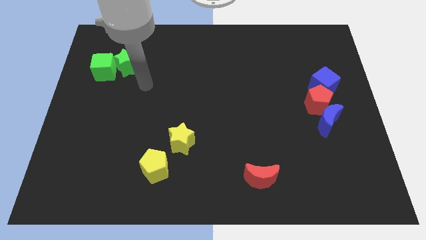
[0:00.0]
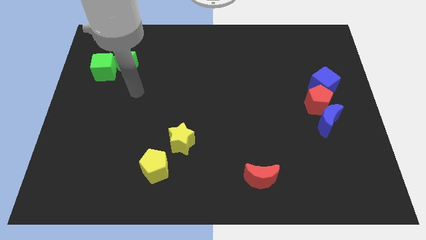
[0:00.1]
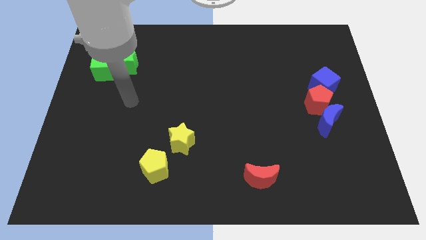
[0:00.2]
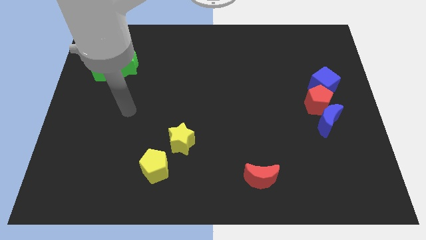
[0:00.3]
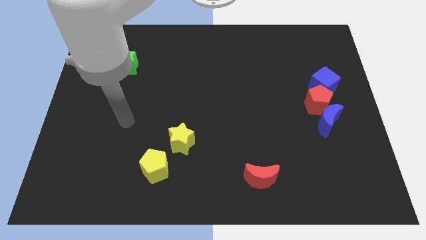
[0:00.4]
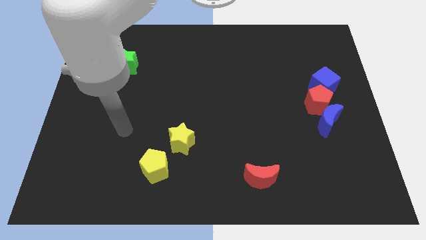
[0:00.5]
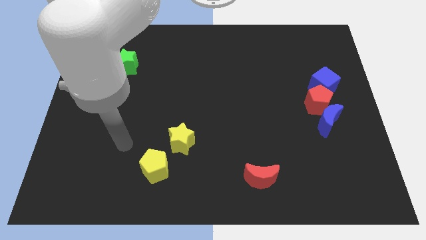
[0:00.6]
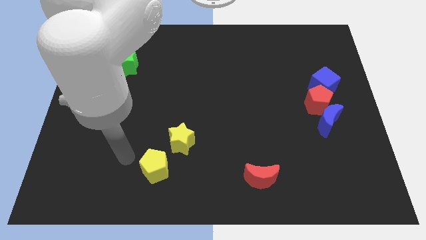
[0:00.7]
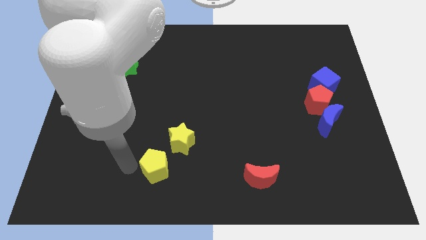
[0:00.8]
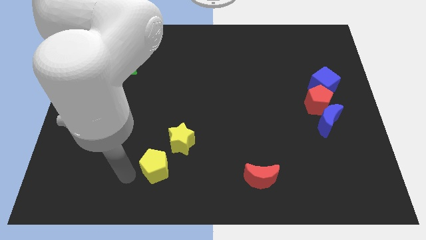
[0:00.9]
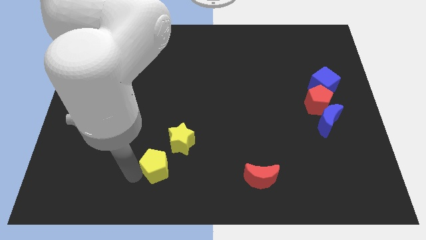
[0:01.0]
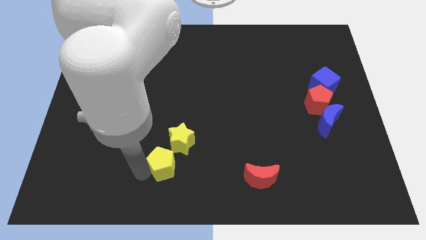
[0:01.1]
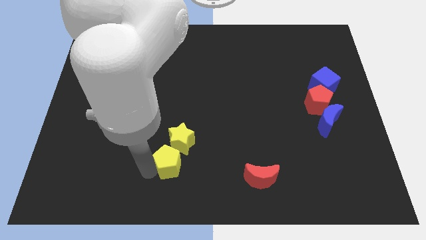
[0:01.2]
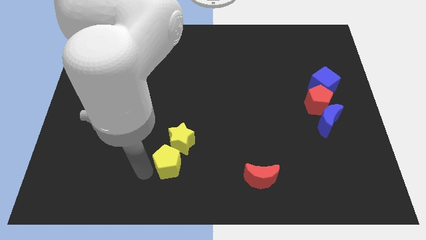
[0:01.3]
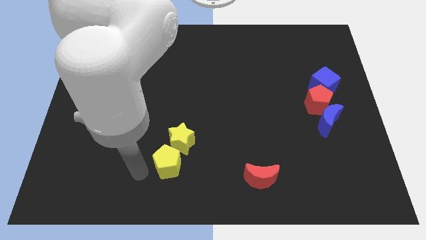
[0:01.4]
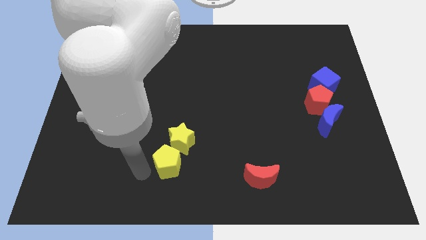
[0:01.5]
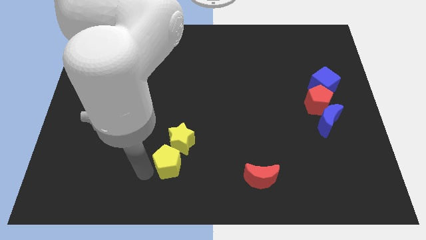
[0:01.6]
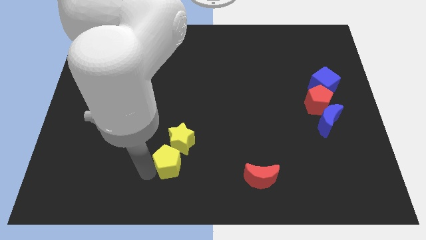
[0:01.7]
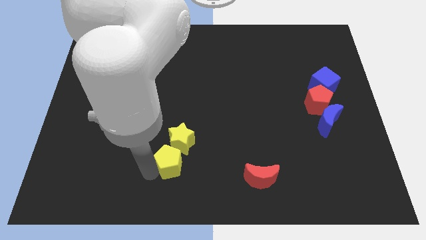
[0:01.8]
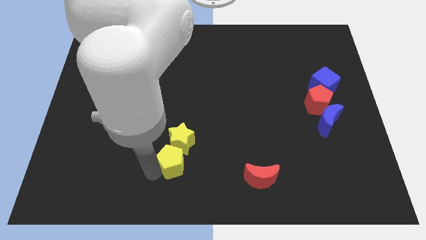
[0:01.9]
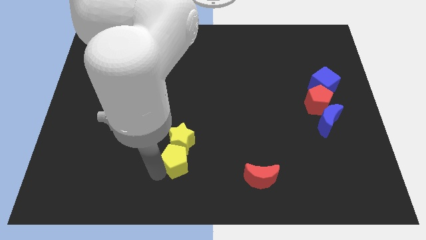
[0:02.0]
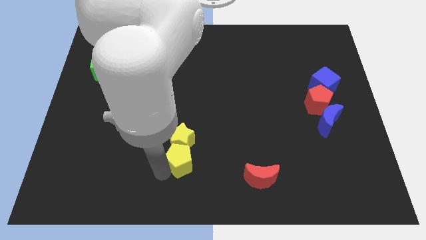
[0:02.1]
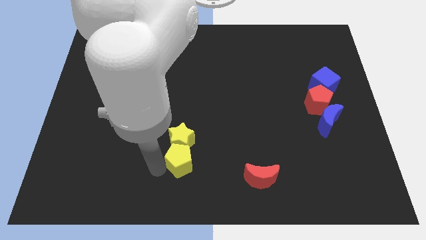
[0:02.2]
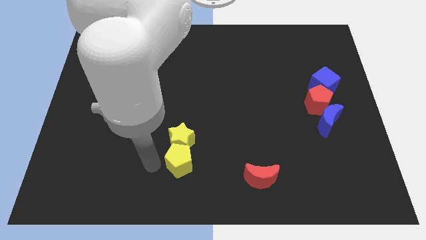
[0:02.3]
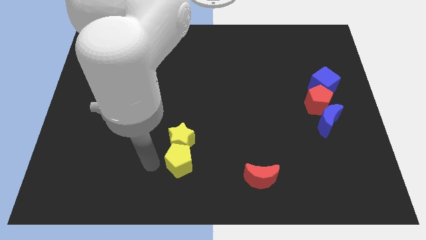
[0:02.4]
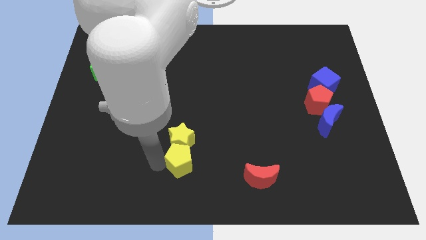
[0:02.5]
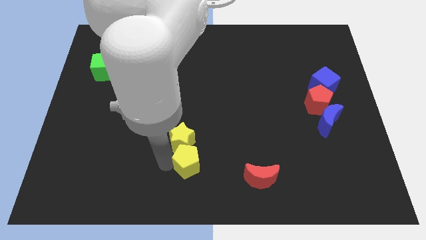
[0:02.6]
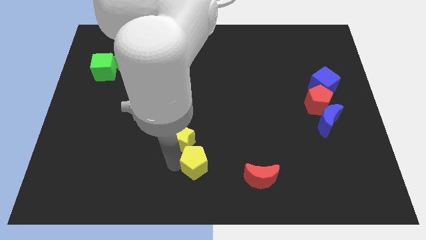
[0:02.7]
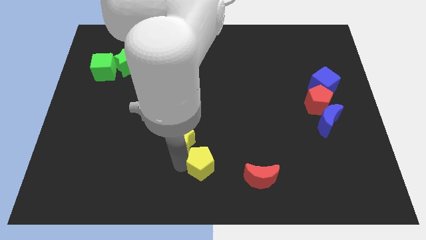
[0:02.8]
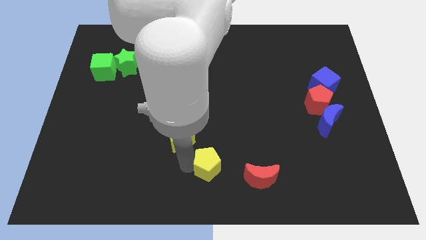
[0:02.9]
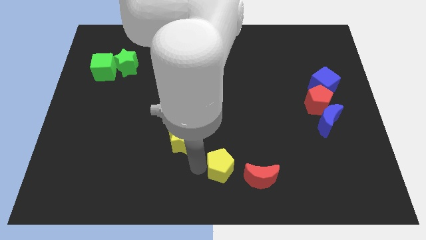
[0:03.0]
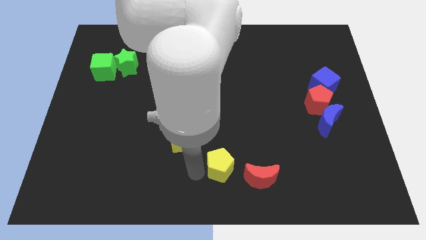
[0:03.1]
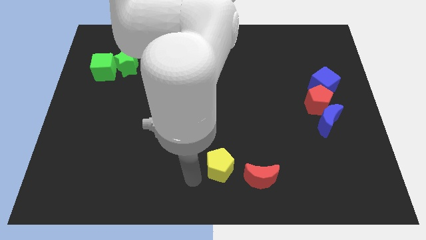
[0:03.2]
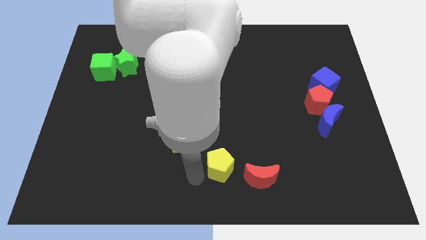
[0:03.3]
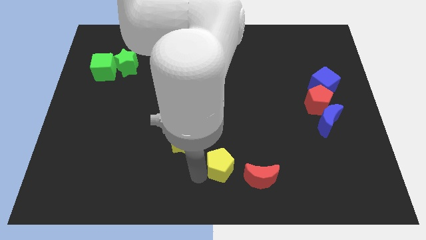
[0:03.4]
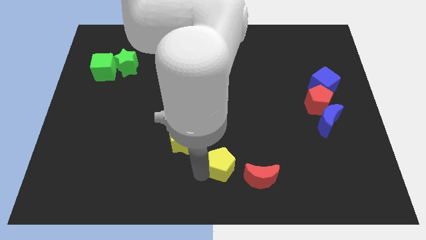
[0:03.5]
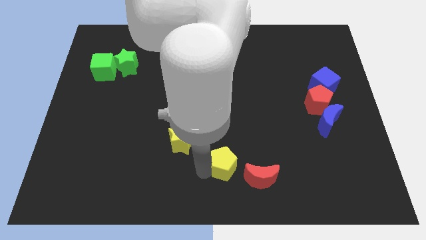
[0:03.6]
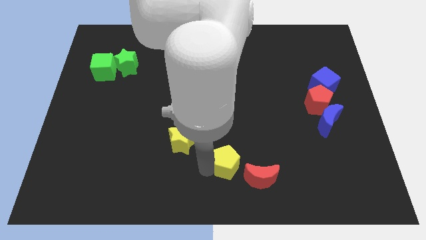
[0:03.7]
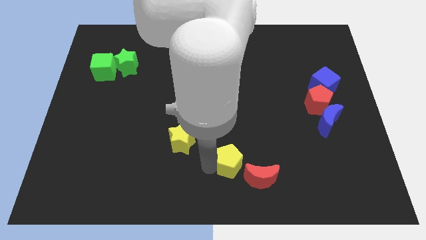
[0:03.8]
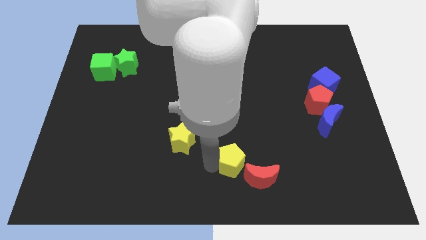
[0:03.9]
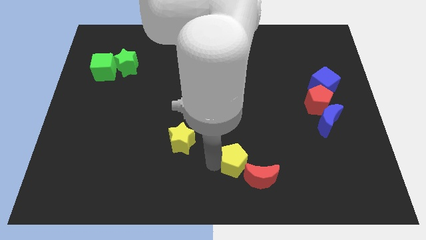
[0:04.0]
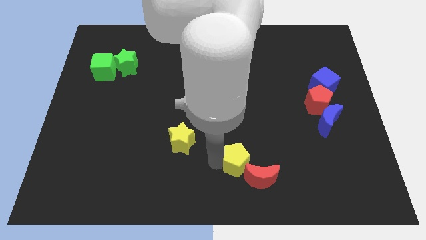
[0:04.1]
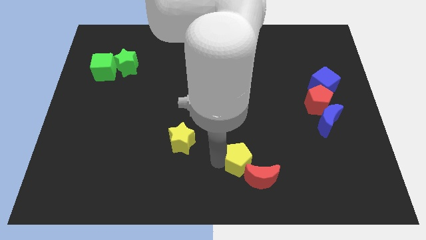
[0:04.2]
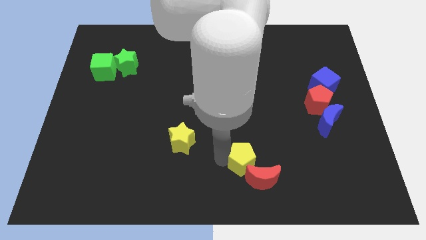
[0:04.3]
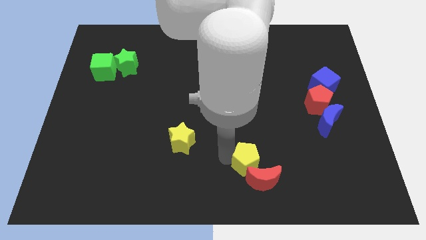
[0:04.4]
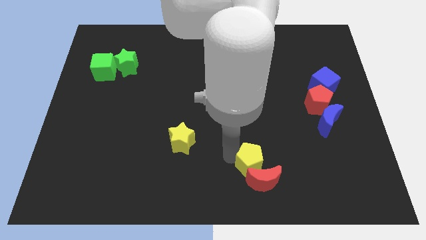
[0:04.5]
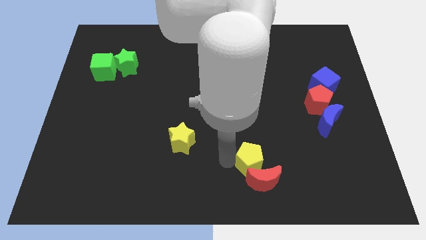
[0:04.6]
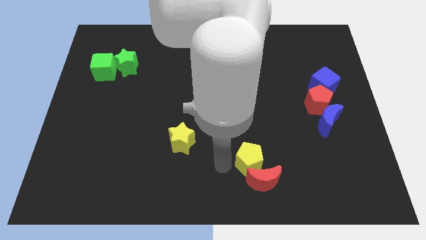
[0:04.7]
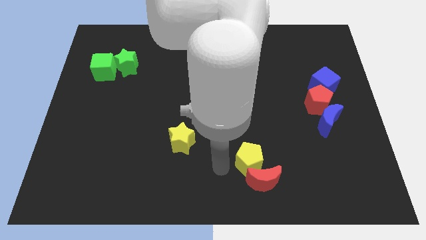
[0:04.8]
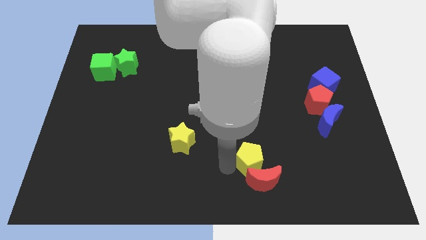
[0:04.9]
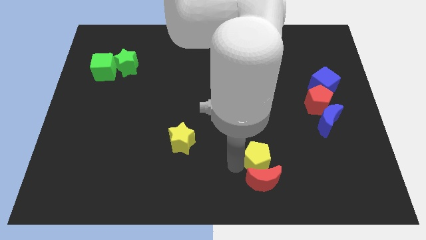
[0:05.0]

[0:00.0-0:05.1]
move the yellow pentagon to the right

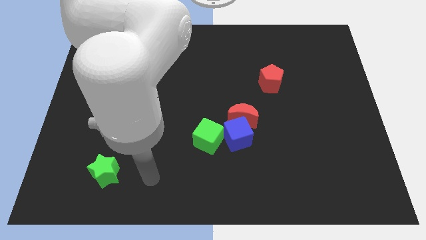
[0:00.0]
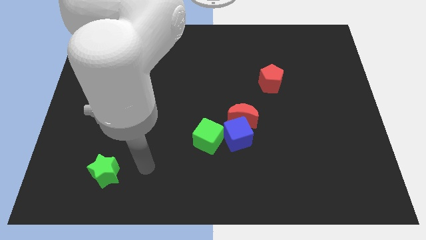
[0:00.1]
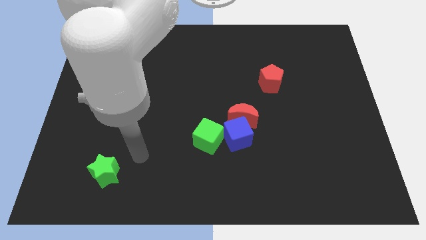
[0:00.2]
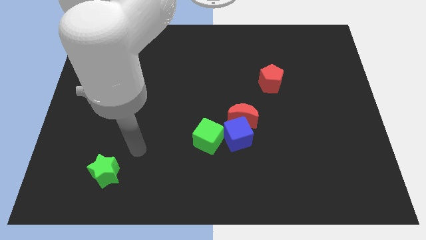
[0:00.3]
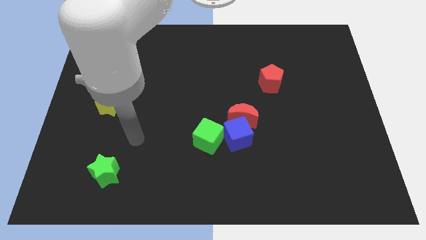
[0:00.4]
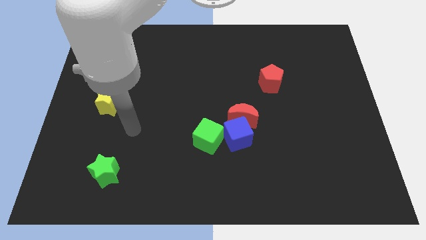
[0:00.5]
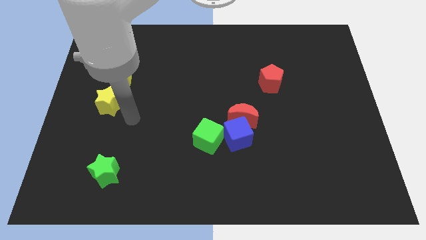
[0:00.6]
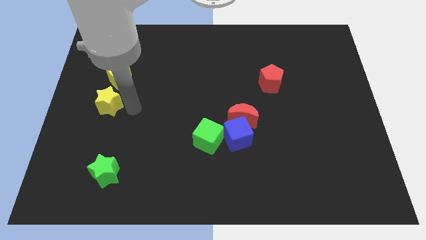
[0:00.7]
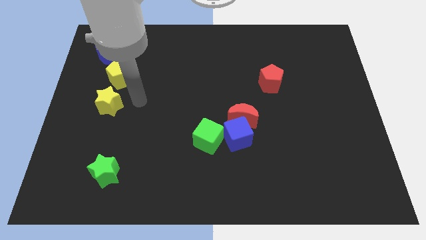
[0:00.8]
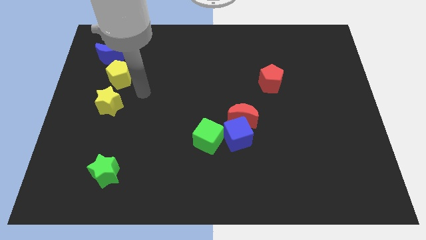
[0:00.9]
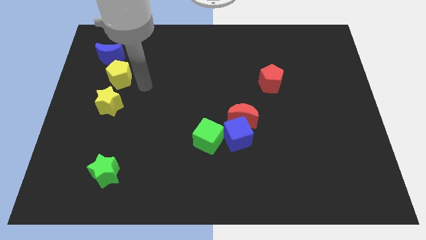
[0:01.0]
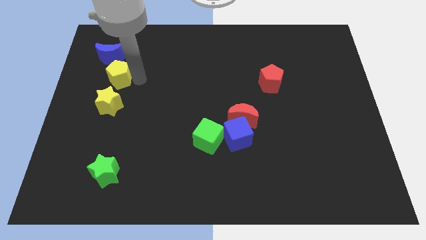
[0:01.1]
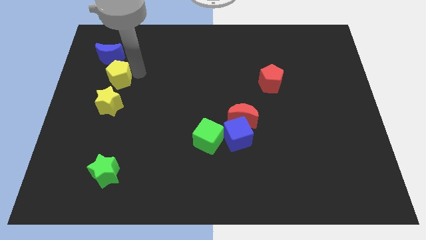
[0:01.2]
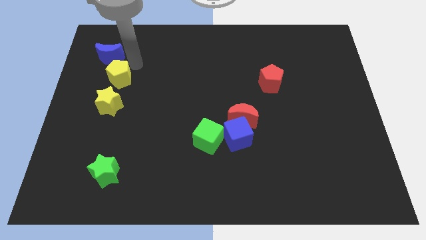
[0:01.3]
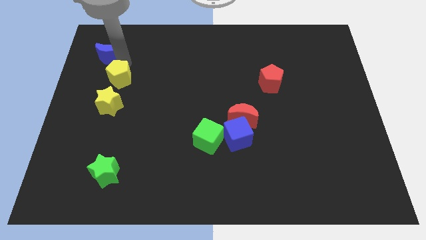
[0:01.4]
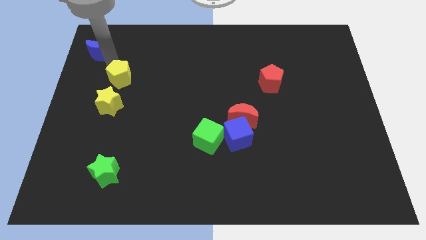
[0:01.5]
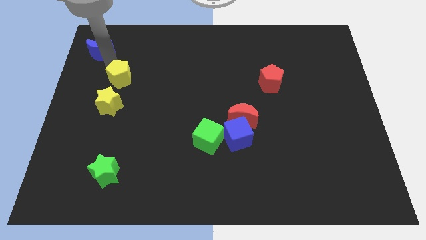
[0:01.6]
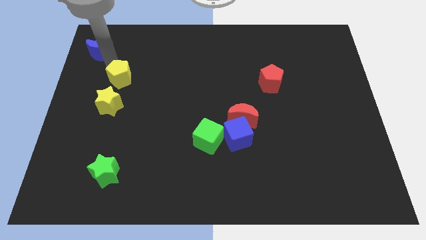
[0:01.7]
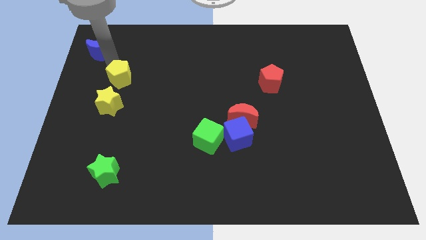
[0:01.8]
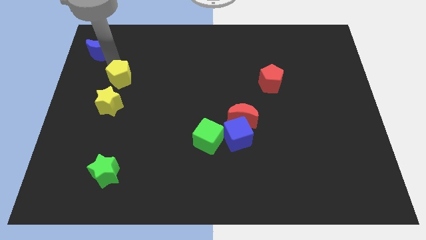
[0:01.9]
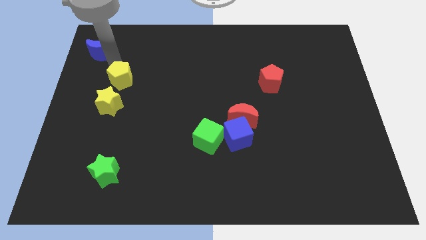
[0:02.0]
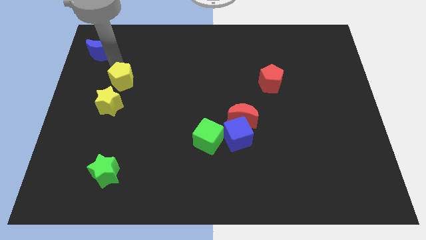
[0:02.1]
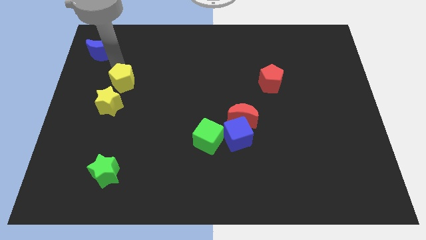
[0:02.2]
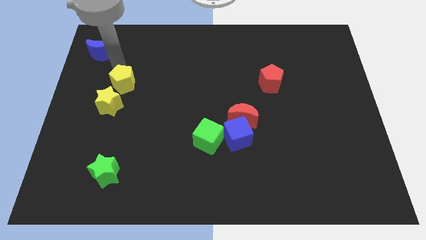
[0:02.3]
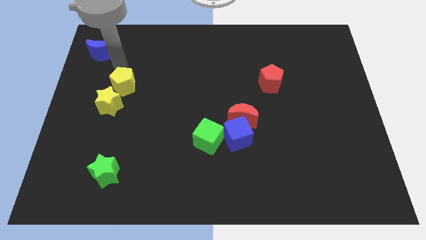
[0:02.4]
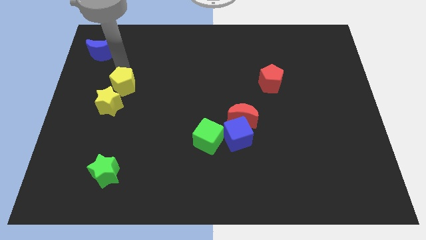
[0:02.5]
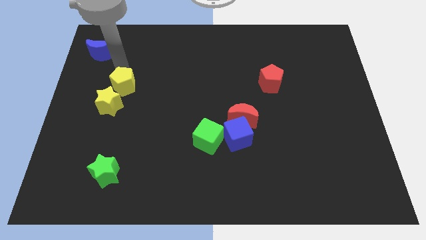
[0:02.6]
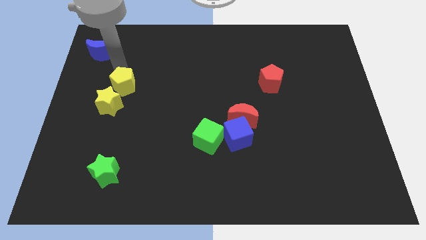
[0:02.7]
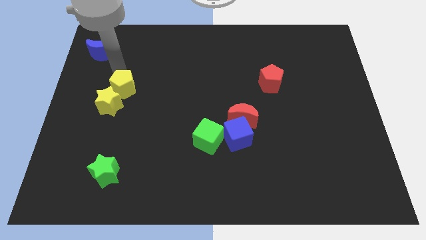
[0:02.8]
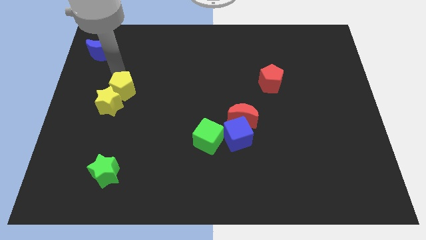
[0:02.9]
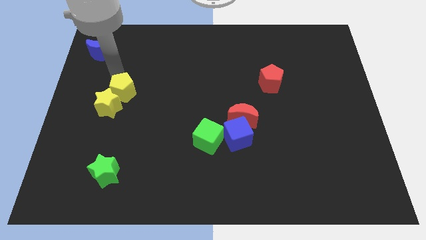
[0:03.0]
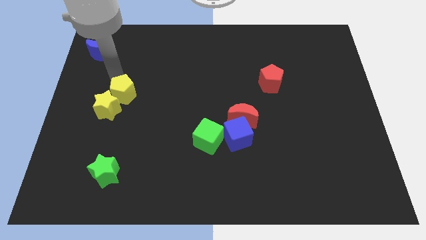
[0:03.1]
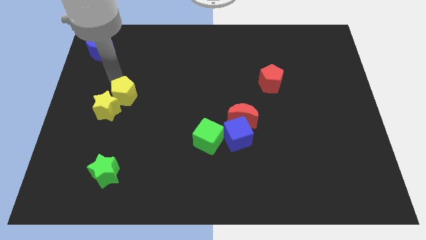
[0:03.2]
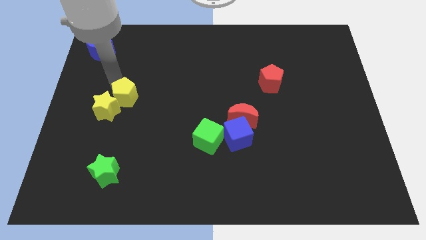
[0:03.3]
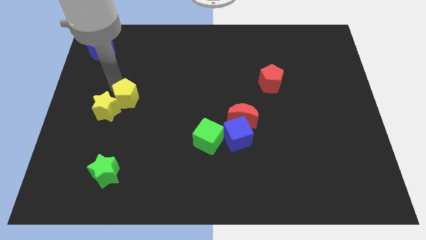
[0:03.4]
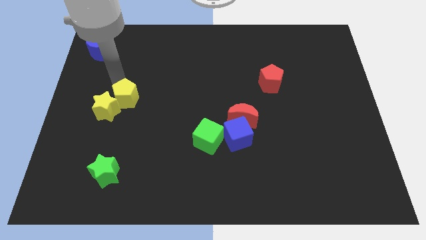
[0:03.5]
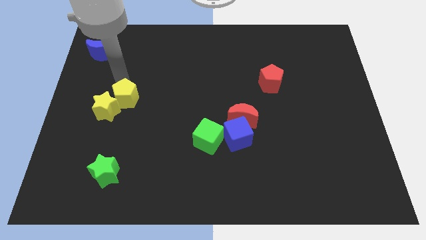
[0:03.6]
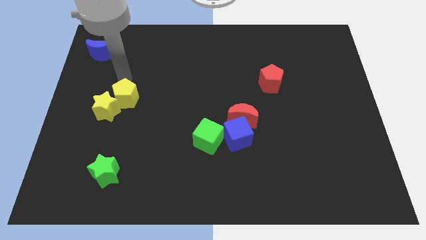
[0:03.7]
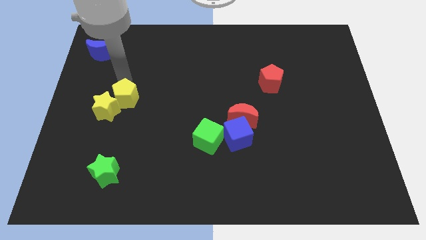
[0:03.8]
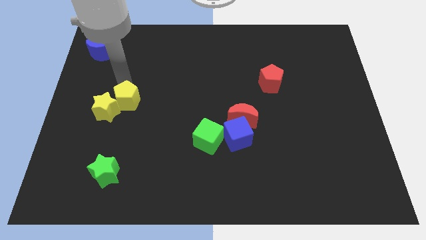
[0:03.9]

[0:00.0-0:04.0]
push the yellow pentagon a little downwards
